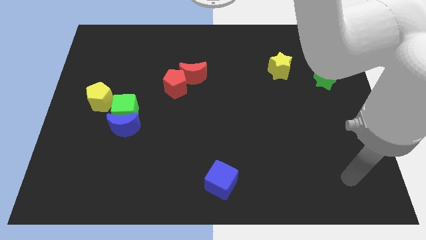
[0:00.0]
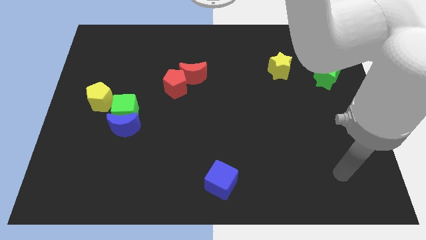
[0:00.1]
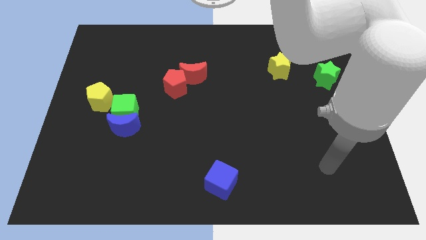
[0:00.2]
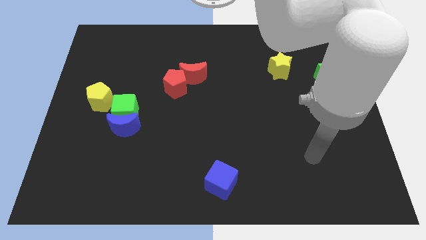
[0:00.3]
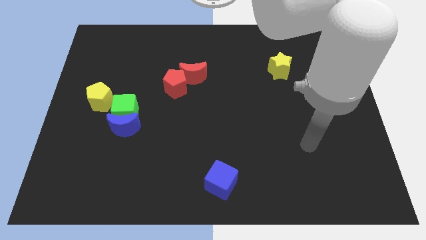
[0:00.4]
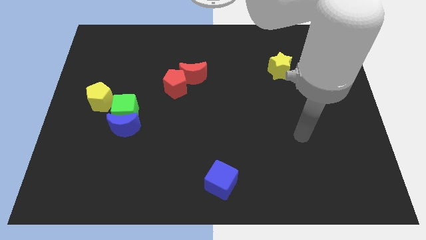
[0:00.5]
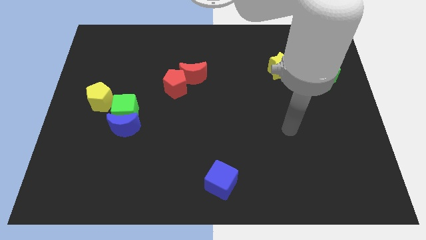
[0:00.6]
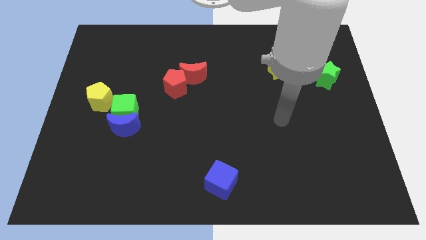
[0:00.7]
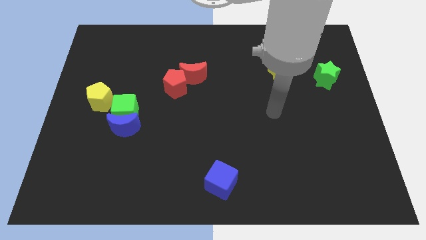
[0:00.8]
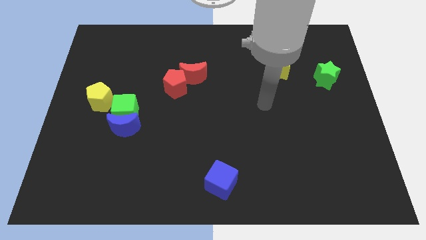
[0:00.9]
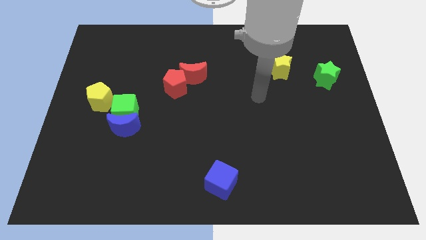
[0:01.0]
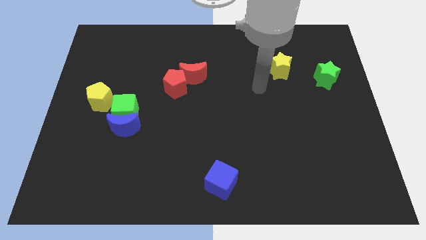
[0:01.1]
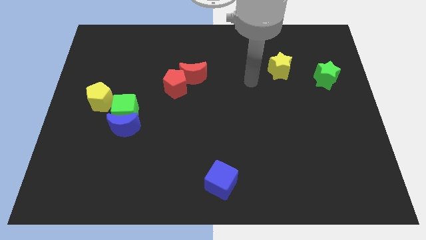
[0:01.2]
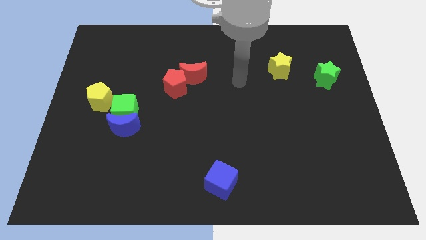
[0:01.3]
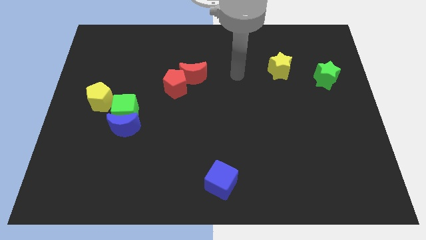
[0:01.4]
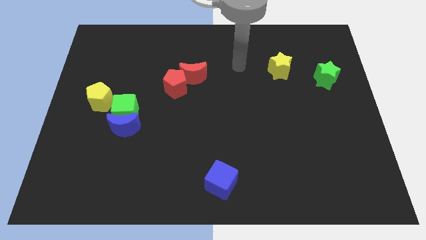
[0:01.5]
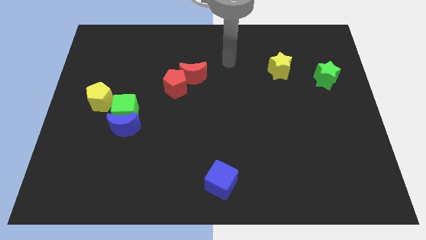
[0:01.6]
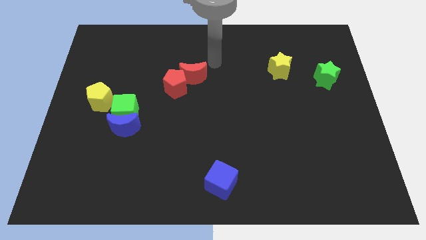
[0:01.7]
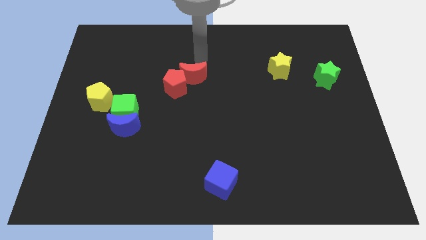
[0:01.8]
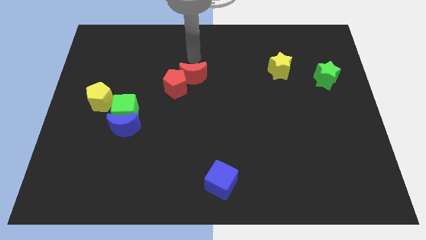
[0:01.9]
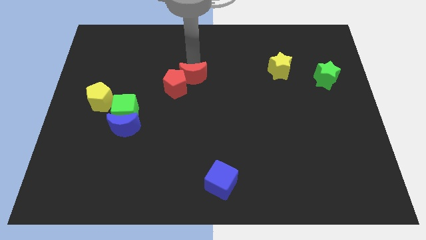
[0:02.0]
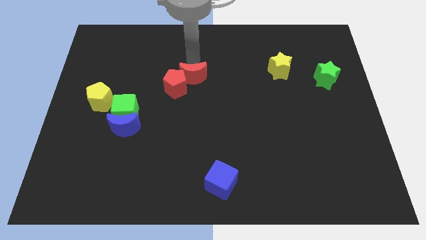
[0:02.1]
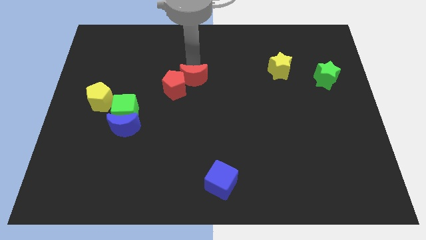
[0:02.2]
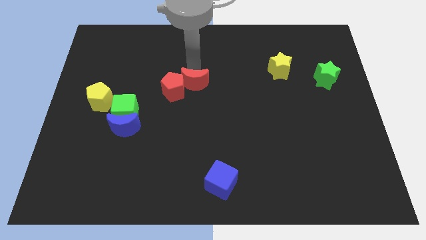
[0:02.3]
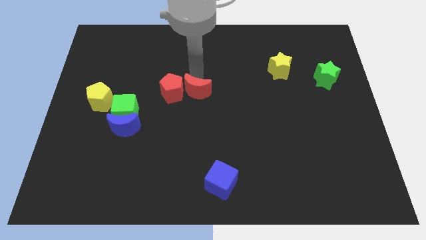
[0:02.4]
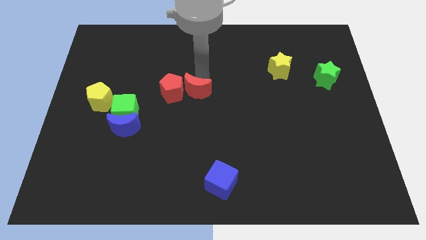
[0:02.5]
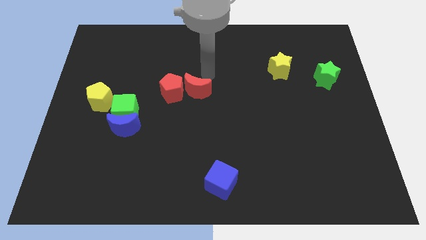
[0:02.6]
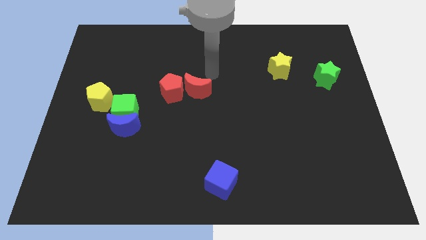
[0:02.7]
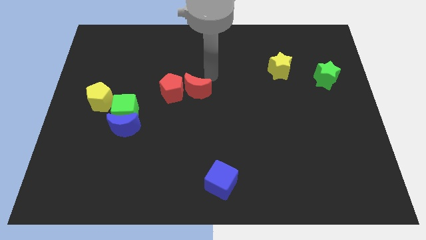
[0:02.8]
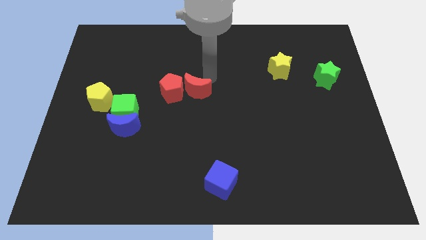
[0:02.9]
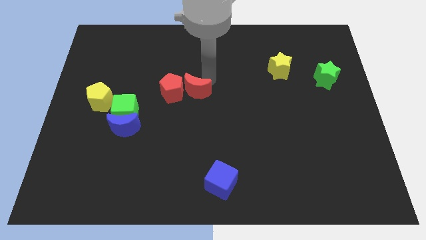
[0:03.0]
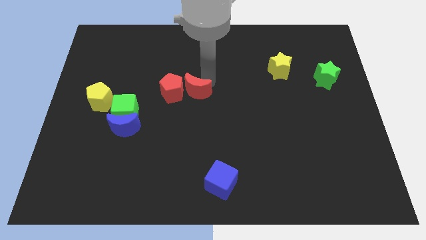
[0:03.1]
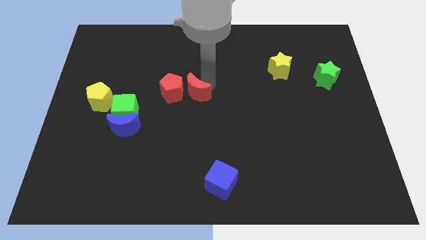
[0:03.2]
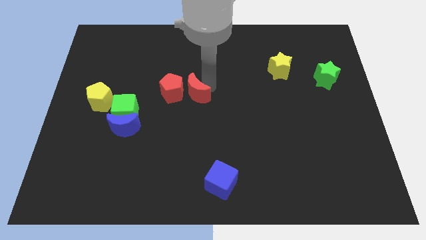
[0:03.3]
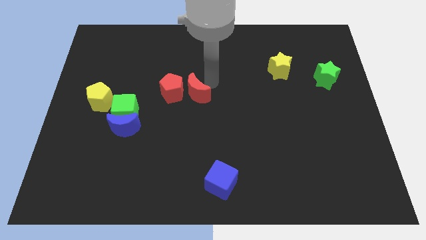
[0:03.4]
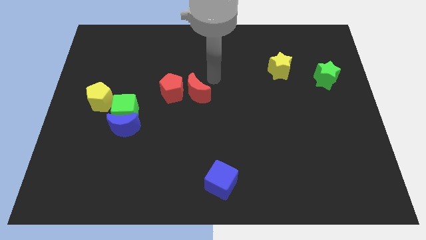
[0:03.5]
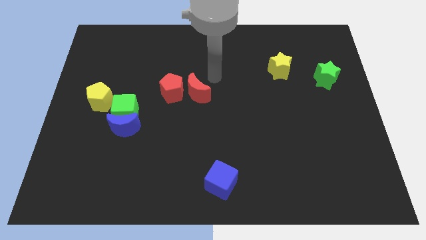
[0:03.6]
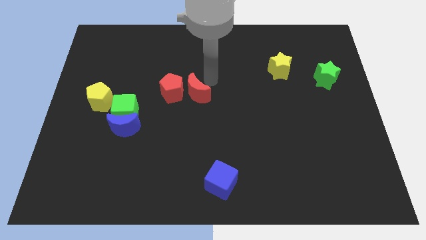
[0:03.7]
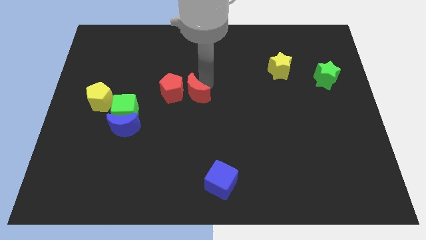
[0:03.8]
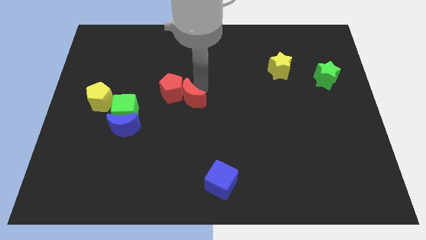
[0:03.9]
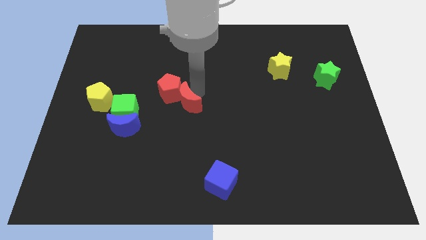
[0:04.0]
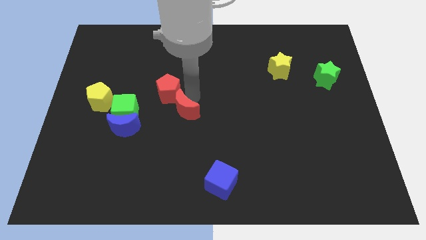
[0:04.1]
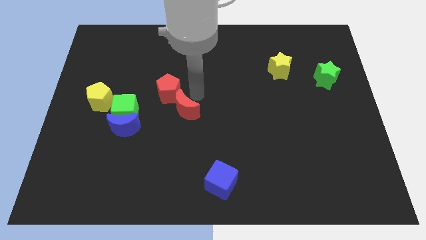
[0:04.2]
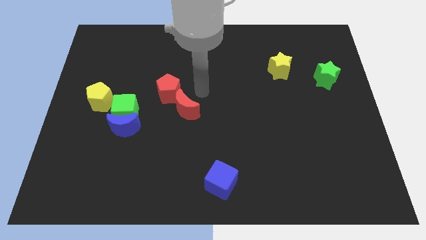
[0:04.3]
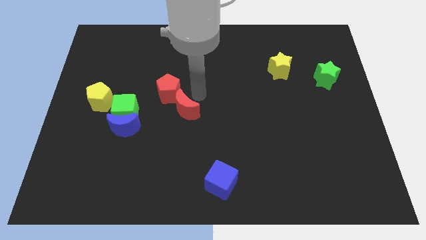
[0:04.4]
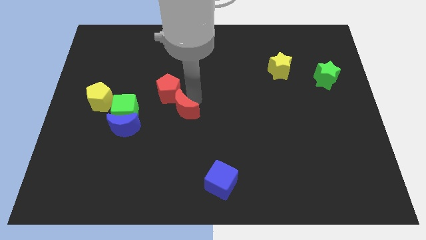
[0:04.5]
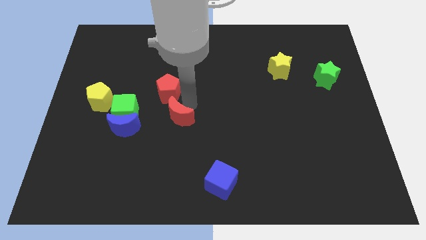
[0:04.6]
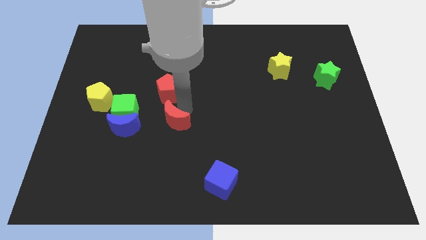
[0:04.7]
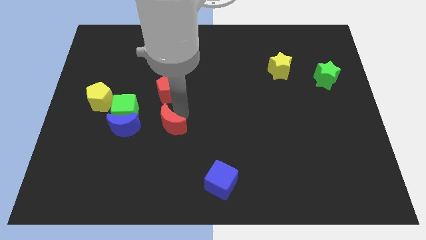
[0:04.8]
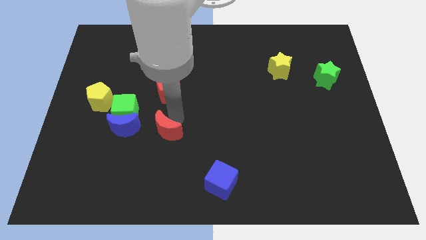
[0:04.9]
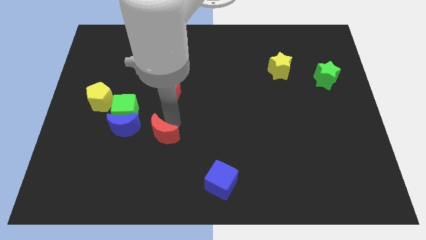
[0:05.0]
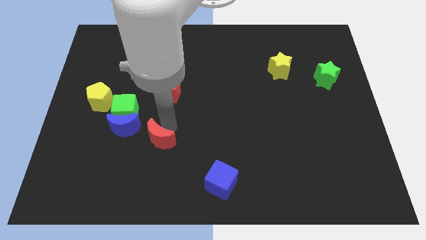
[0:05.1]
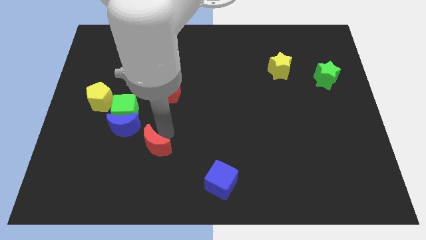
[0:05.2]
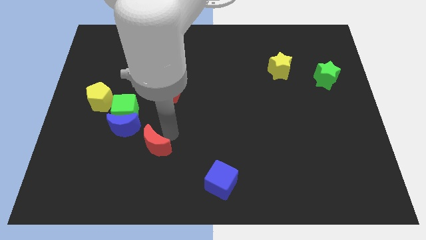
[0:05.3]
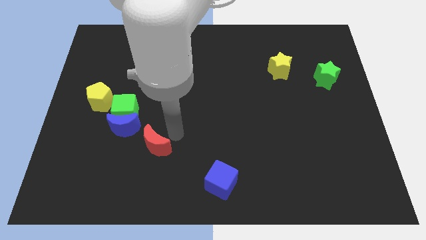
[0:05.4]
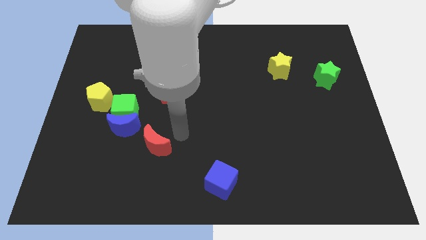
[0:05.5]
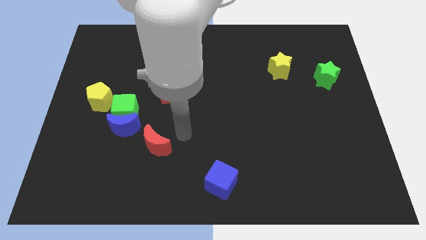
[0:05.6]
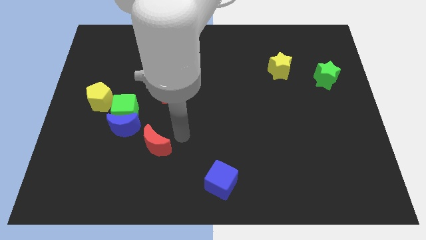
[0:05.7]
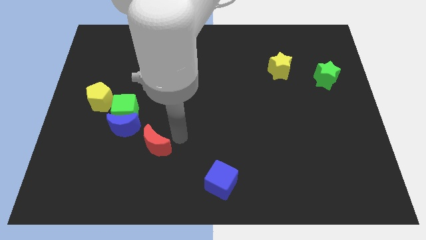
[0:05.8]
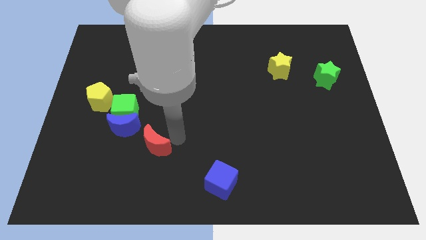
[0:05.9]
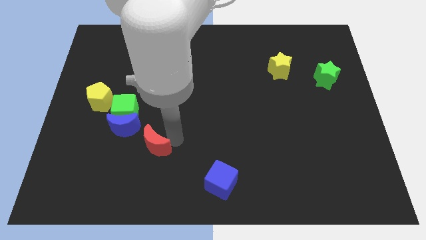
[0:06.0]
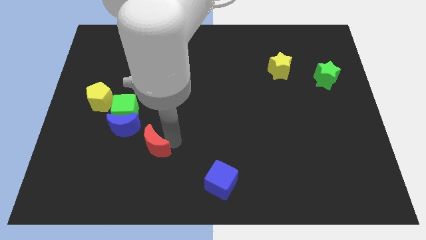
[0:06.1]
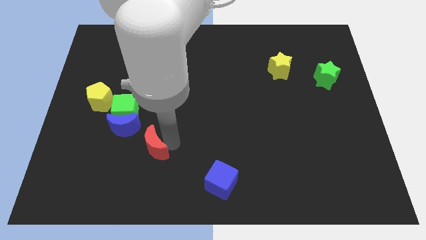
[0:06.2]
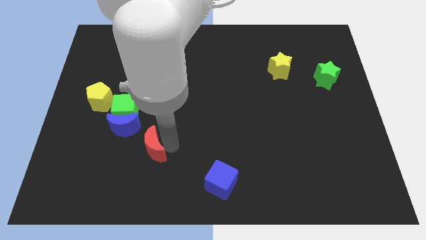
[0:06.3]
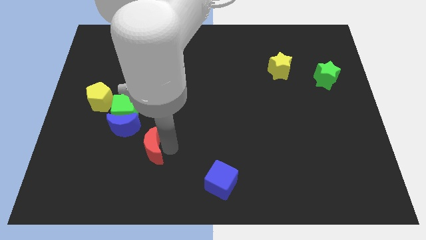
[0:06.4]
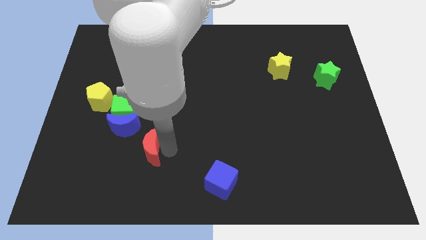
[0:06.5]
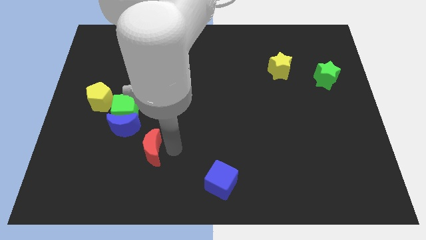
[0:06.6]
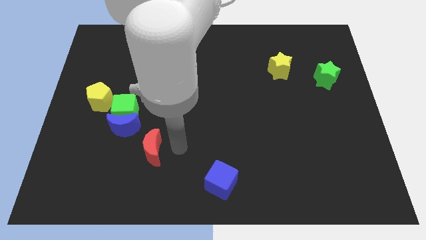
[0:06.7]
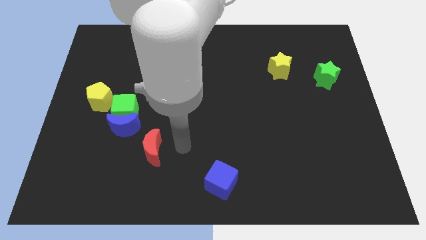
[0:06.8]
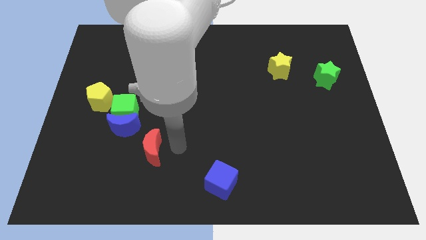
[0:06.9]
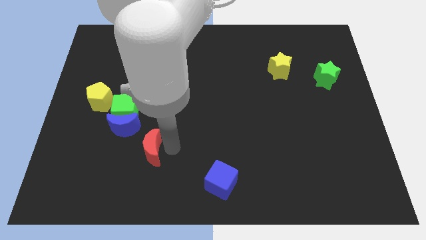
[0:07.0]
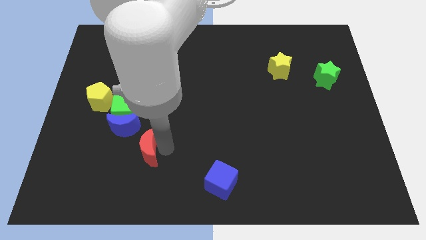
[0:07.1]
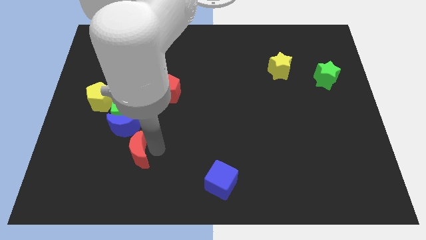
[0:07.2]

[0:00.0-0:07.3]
push the red moon downwards and then left

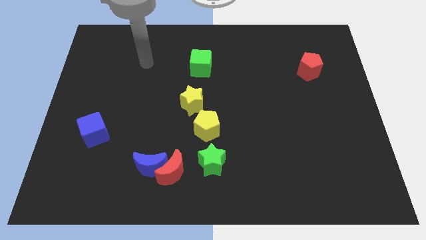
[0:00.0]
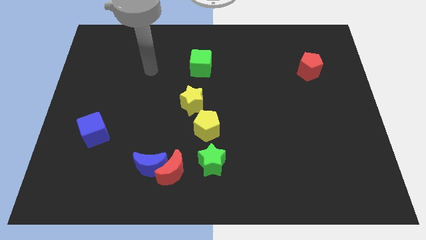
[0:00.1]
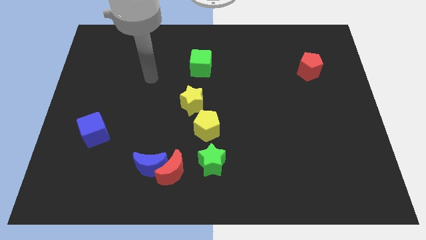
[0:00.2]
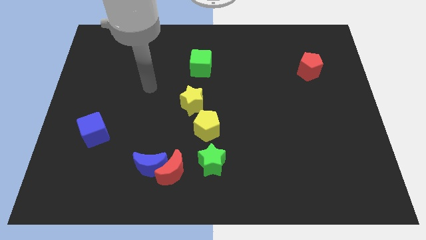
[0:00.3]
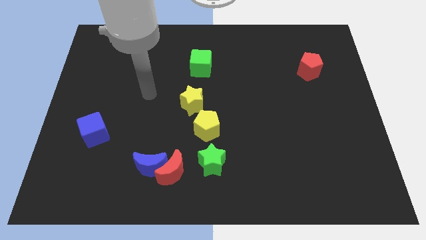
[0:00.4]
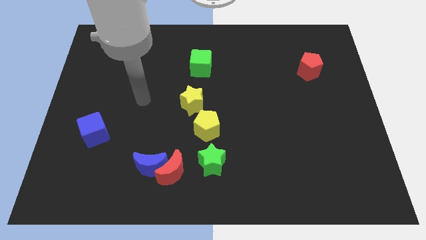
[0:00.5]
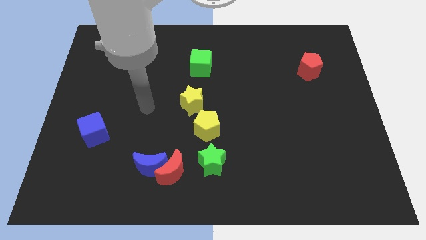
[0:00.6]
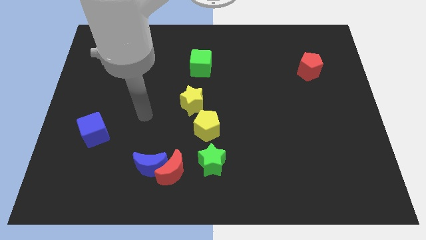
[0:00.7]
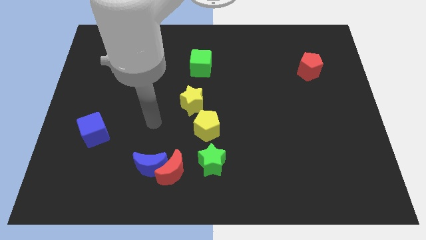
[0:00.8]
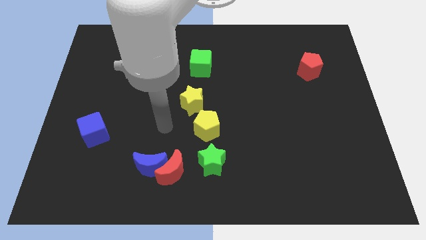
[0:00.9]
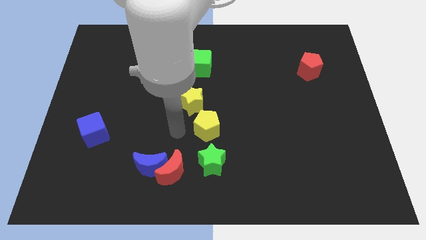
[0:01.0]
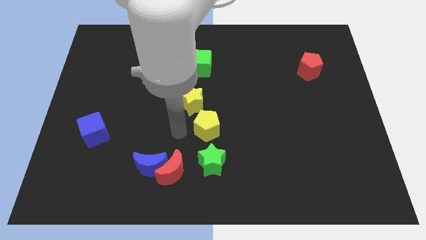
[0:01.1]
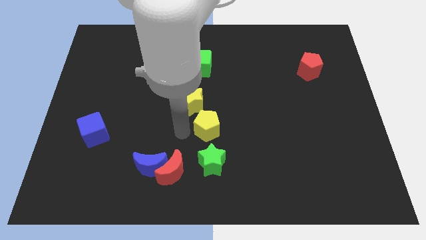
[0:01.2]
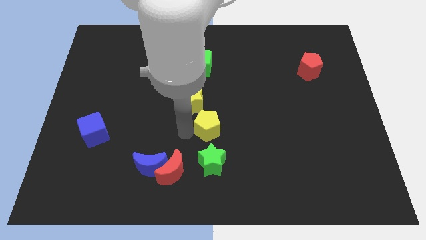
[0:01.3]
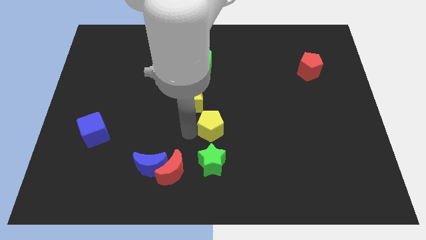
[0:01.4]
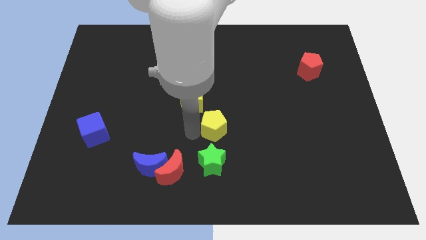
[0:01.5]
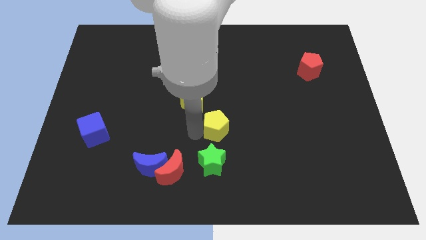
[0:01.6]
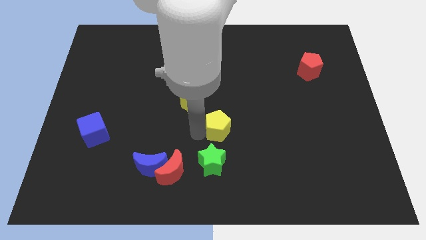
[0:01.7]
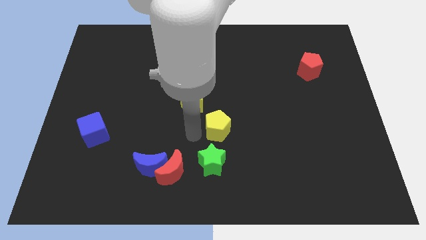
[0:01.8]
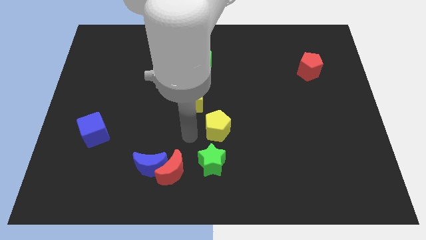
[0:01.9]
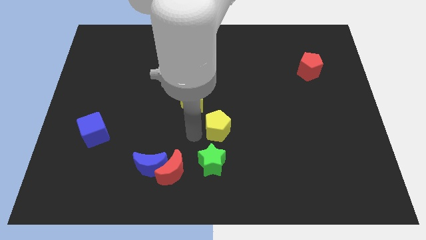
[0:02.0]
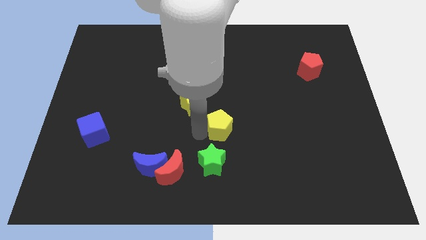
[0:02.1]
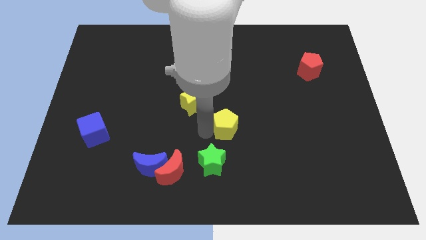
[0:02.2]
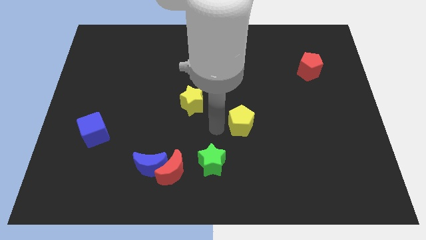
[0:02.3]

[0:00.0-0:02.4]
slide the yellow pentagon a little to the right
